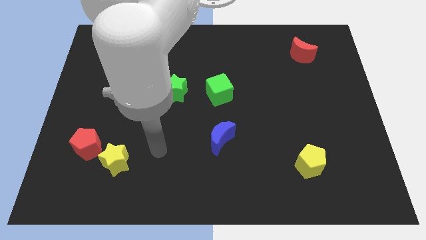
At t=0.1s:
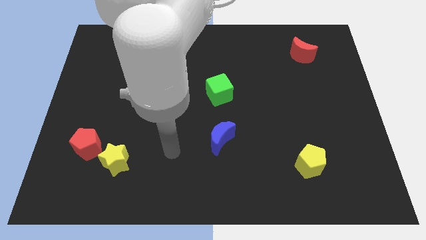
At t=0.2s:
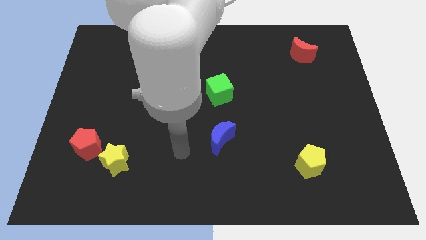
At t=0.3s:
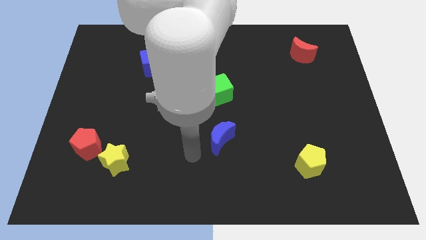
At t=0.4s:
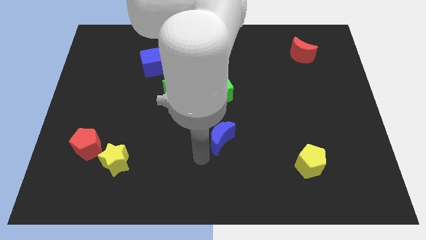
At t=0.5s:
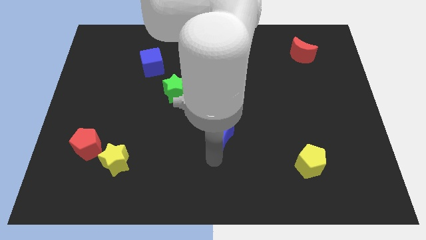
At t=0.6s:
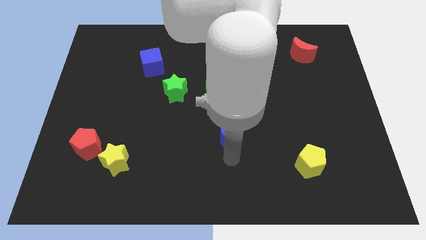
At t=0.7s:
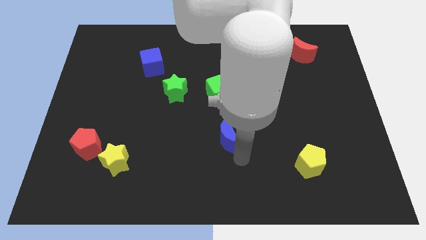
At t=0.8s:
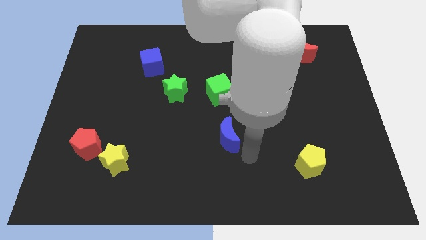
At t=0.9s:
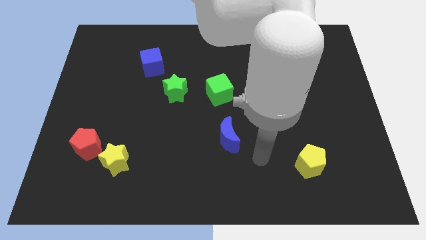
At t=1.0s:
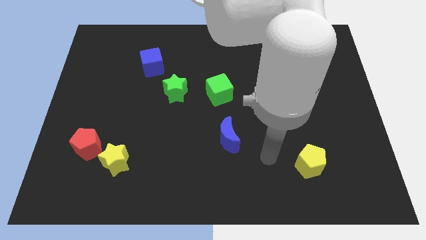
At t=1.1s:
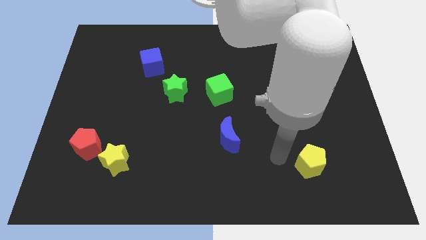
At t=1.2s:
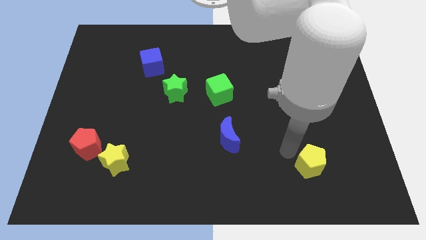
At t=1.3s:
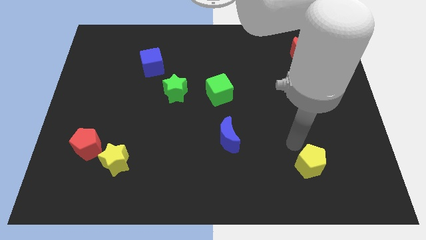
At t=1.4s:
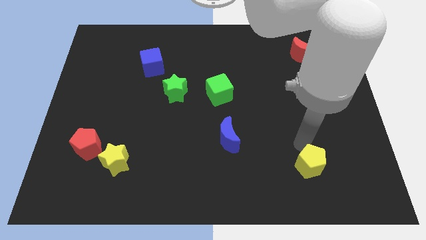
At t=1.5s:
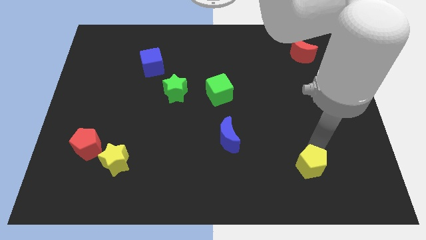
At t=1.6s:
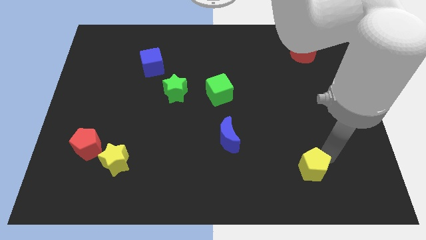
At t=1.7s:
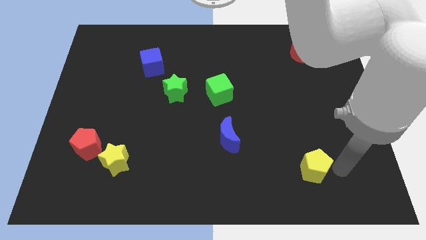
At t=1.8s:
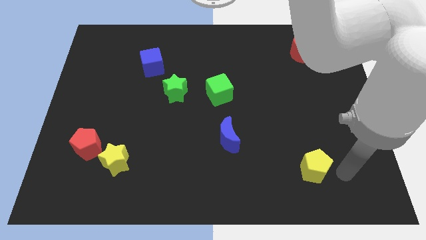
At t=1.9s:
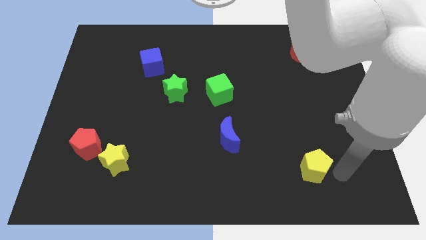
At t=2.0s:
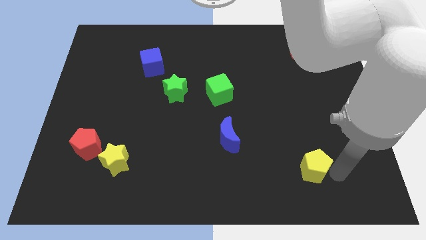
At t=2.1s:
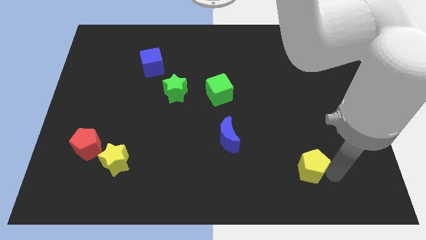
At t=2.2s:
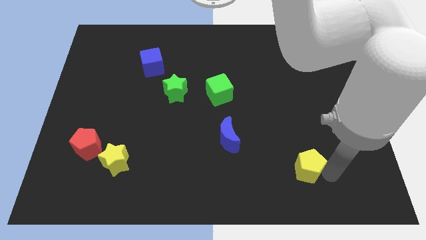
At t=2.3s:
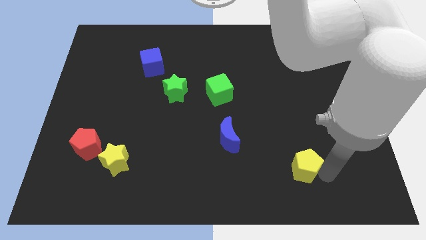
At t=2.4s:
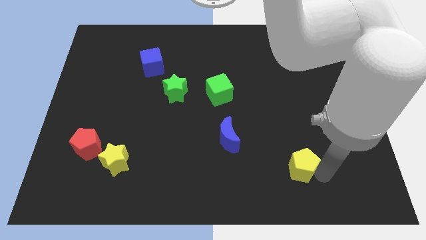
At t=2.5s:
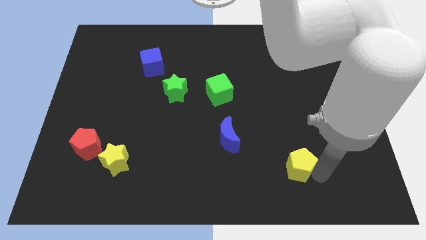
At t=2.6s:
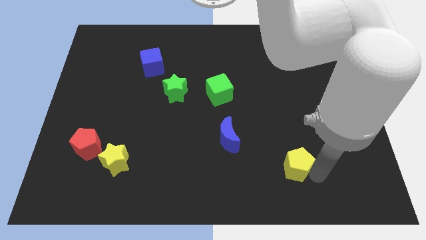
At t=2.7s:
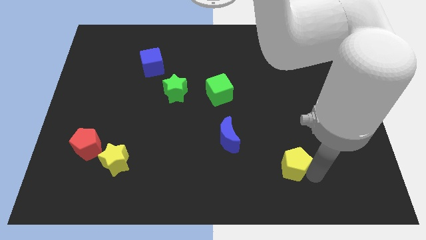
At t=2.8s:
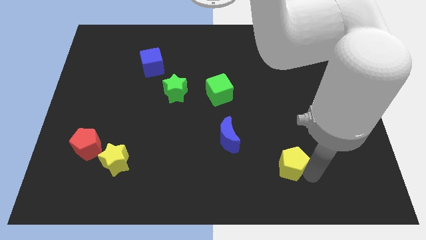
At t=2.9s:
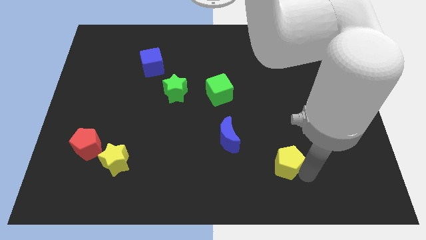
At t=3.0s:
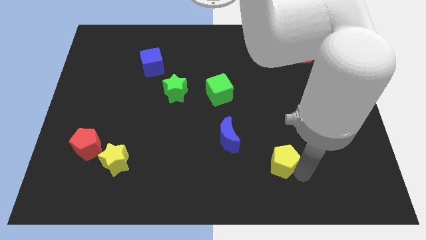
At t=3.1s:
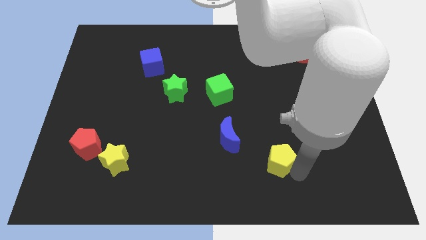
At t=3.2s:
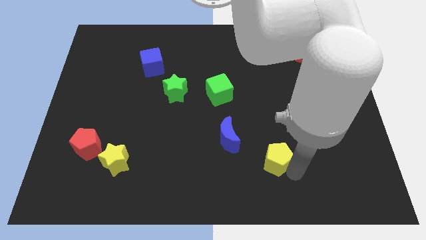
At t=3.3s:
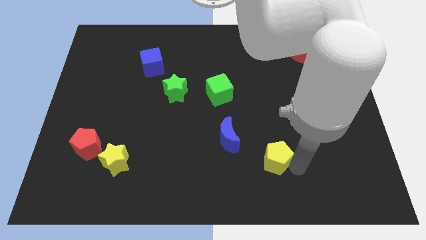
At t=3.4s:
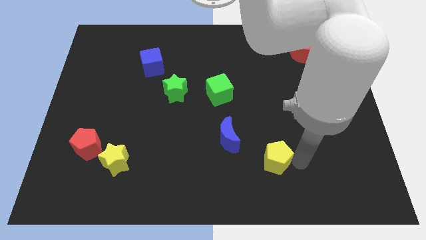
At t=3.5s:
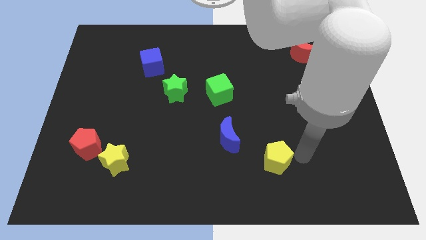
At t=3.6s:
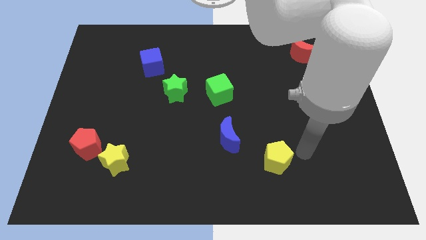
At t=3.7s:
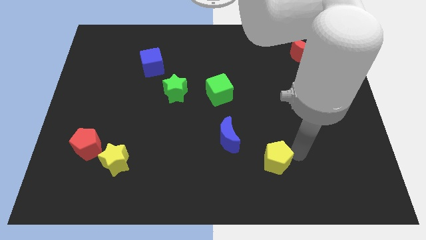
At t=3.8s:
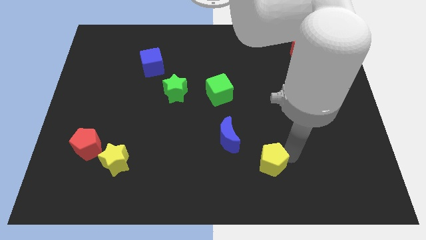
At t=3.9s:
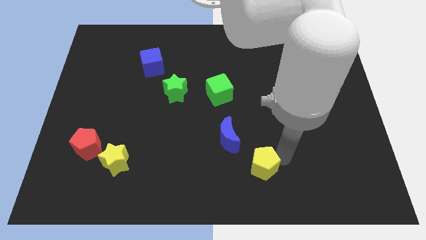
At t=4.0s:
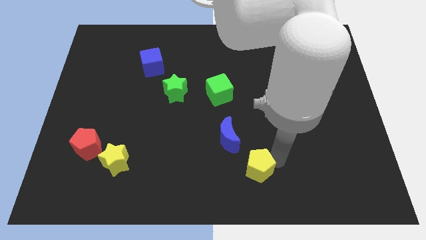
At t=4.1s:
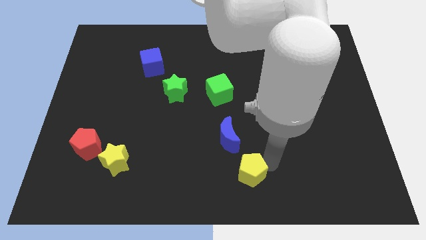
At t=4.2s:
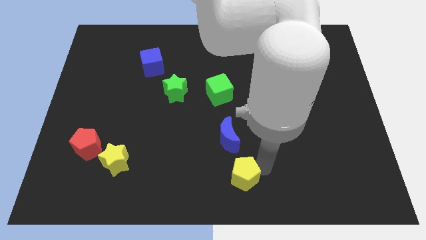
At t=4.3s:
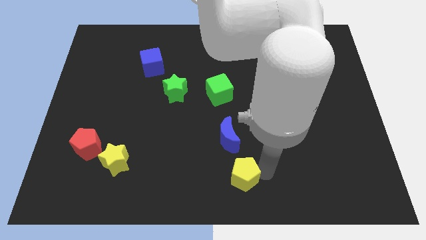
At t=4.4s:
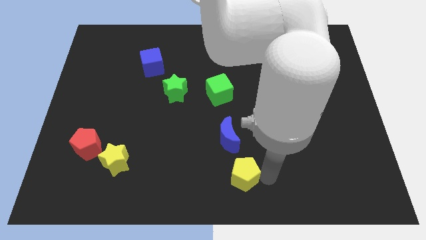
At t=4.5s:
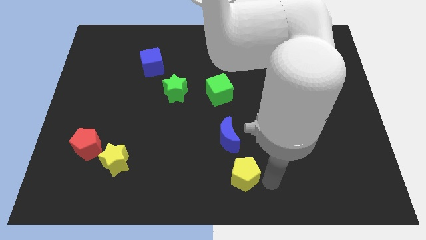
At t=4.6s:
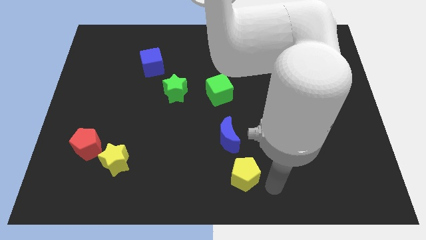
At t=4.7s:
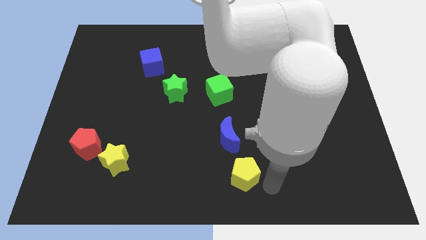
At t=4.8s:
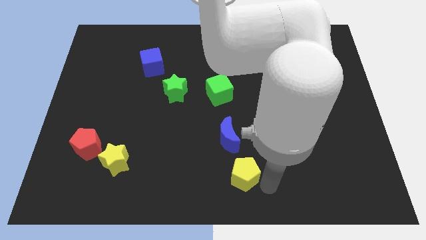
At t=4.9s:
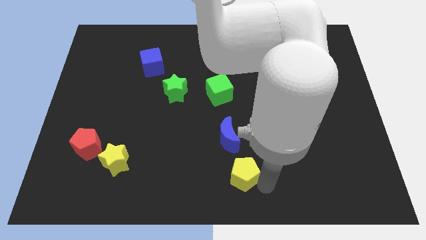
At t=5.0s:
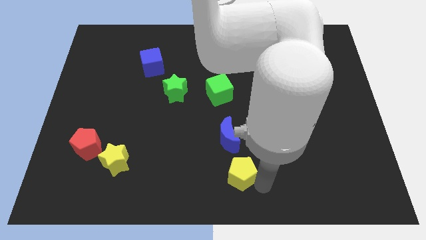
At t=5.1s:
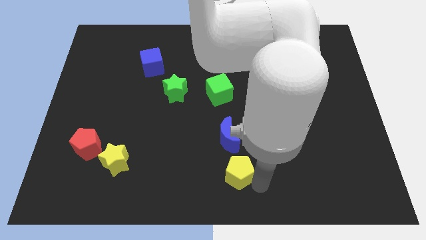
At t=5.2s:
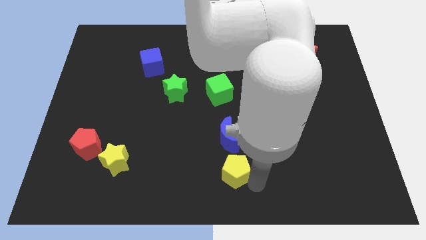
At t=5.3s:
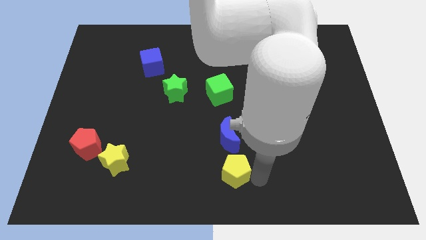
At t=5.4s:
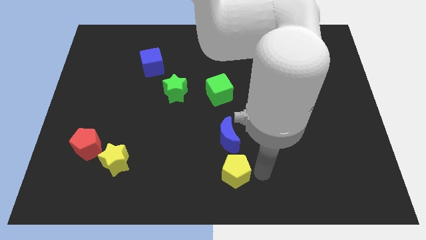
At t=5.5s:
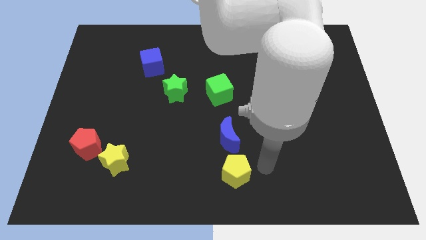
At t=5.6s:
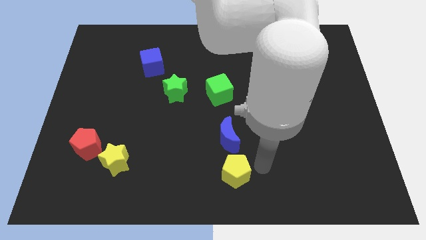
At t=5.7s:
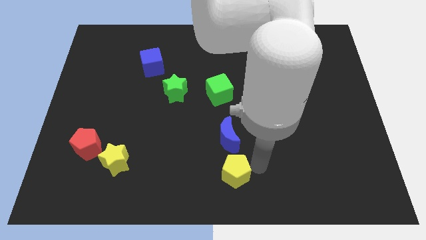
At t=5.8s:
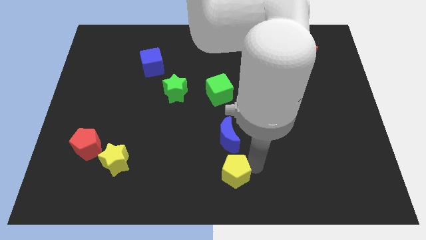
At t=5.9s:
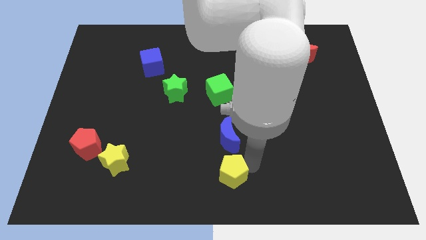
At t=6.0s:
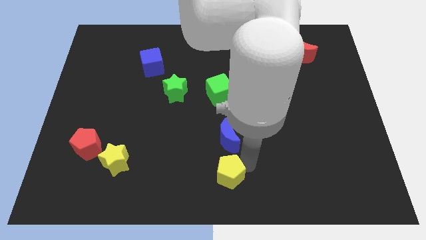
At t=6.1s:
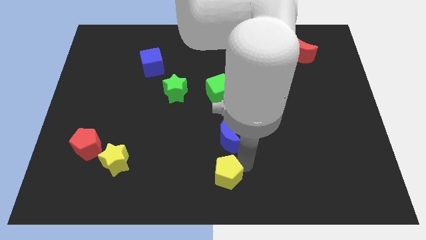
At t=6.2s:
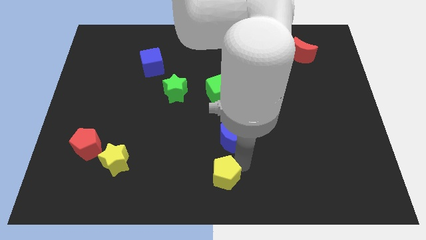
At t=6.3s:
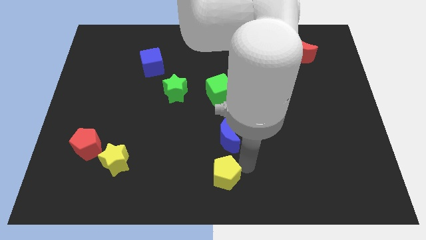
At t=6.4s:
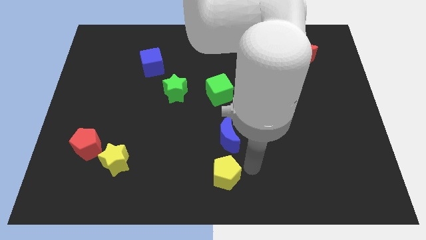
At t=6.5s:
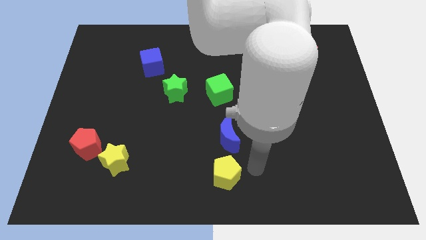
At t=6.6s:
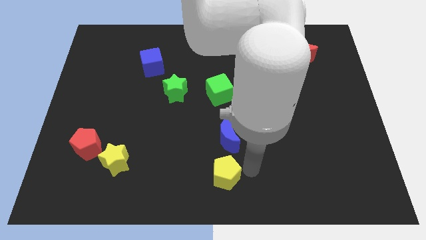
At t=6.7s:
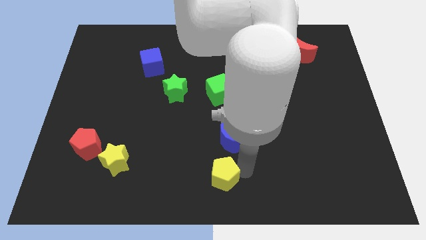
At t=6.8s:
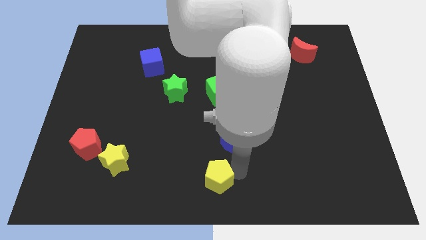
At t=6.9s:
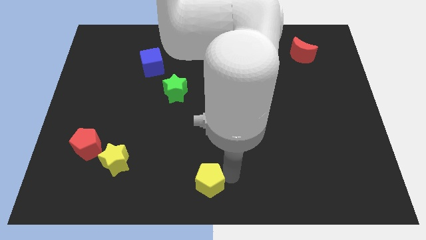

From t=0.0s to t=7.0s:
move the yellow pentagon left

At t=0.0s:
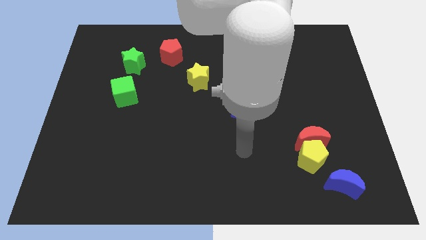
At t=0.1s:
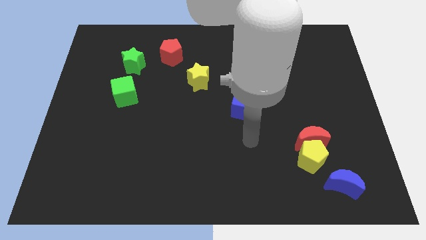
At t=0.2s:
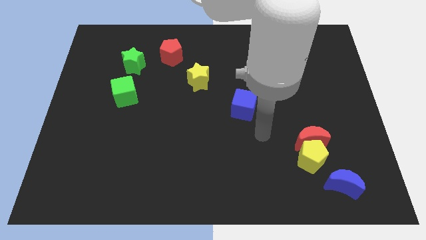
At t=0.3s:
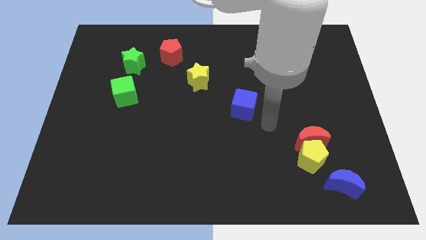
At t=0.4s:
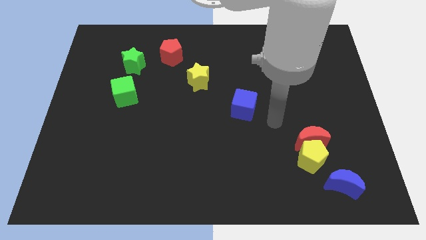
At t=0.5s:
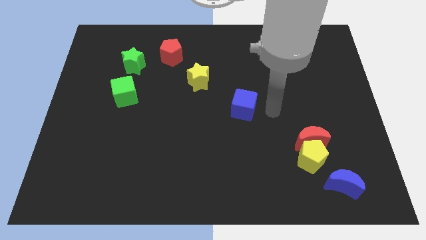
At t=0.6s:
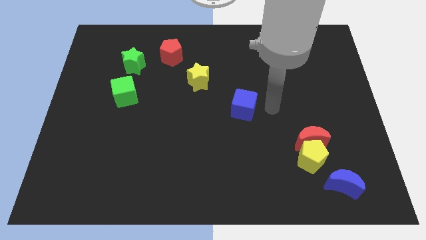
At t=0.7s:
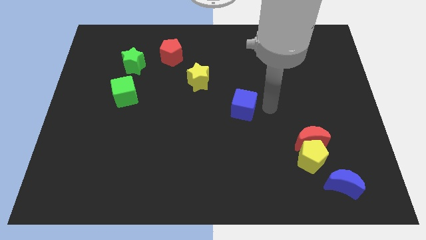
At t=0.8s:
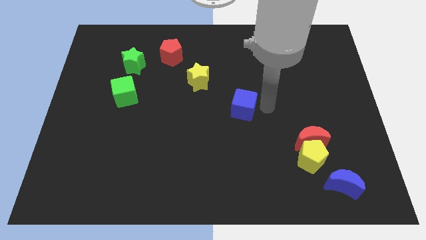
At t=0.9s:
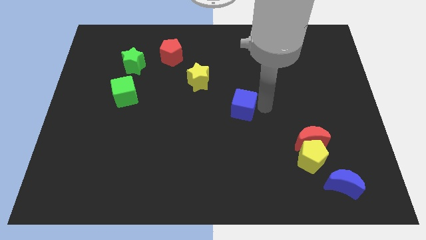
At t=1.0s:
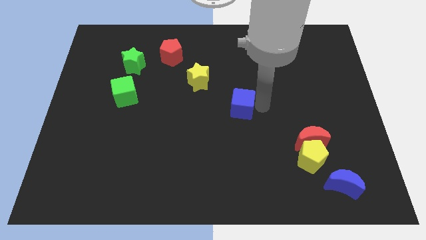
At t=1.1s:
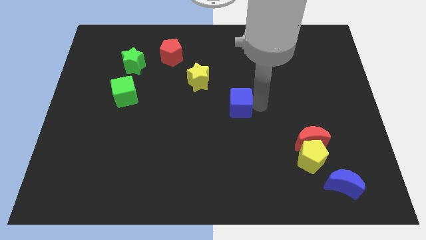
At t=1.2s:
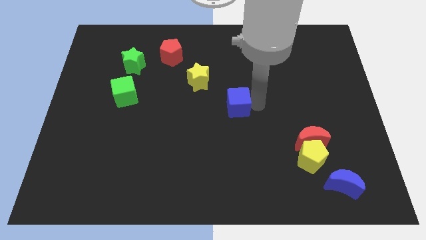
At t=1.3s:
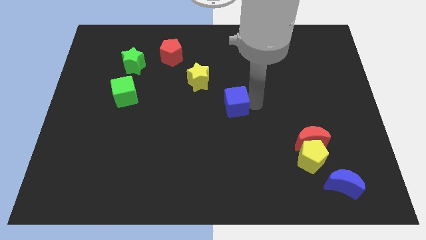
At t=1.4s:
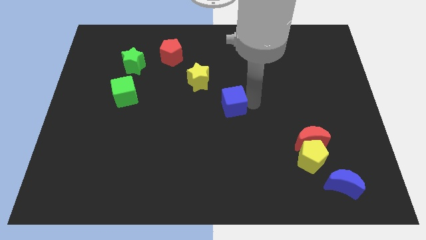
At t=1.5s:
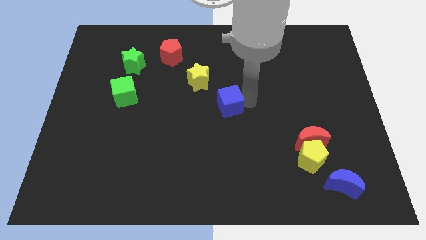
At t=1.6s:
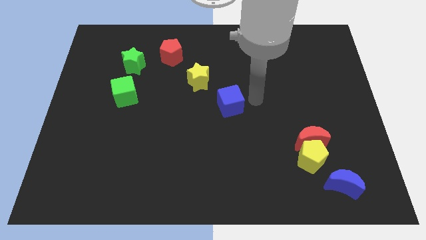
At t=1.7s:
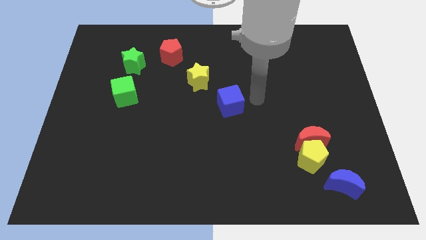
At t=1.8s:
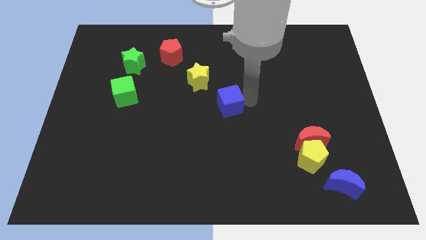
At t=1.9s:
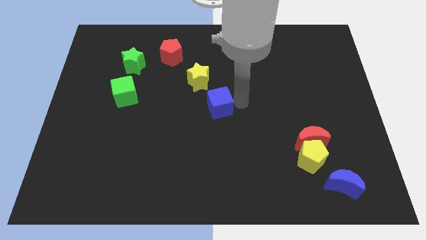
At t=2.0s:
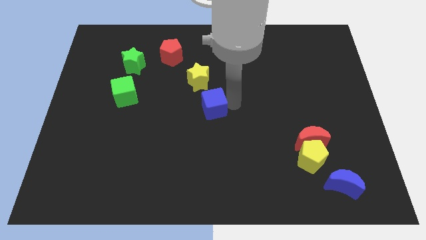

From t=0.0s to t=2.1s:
slightly move the blue cube left
